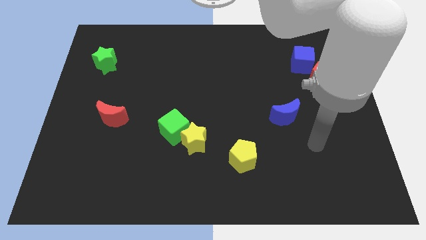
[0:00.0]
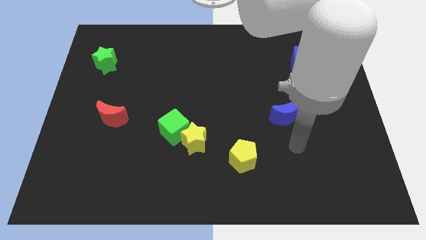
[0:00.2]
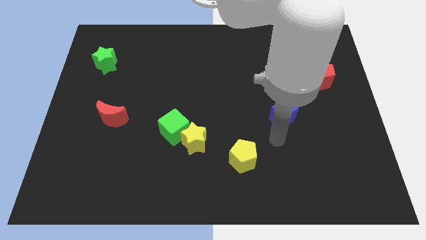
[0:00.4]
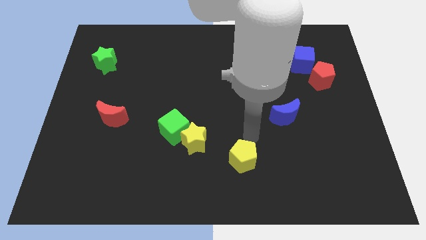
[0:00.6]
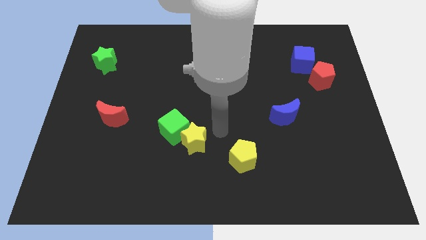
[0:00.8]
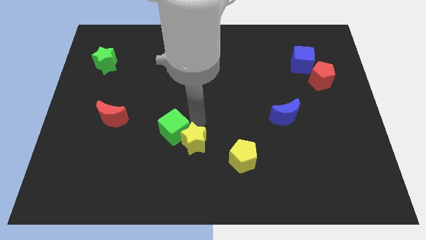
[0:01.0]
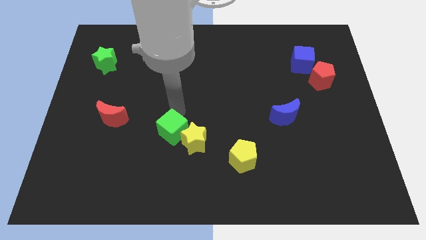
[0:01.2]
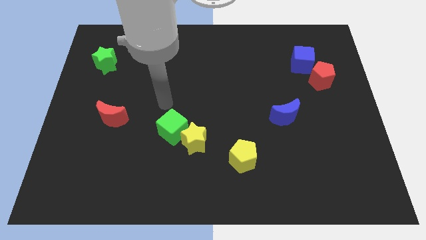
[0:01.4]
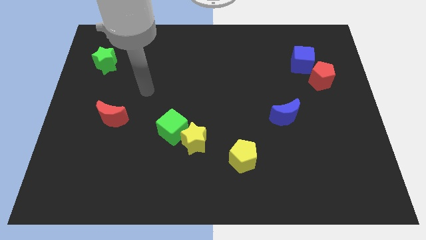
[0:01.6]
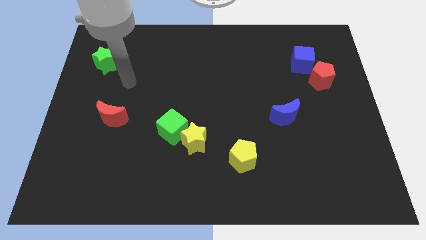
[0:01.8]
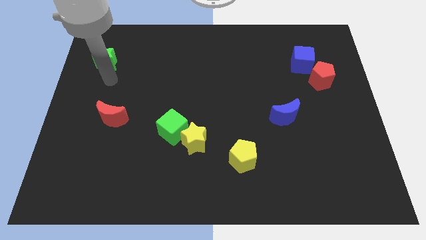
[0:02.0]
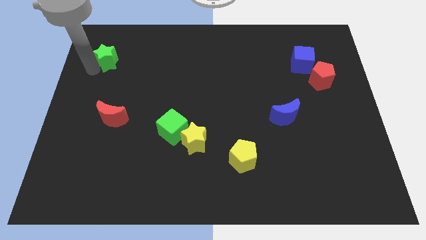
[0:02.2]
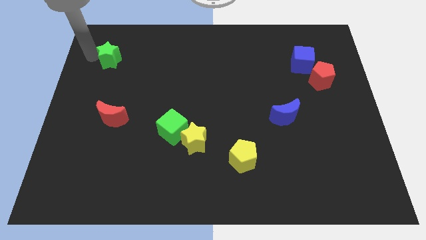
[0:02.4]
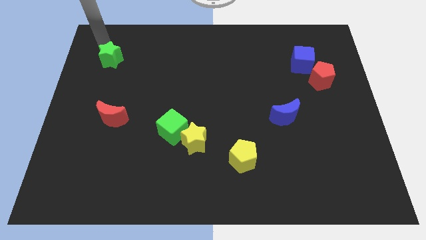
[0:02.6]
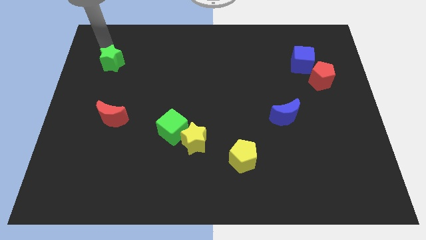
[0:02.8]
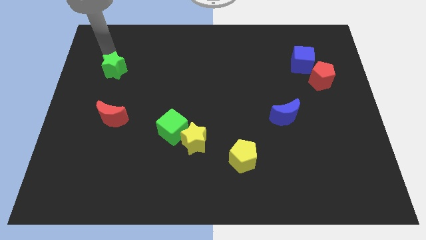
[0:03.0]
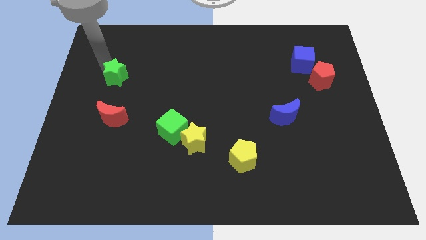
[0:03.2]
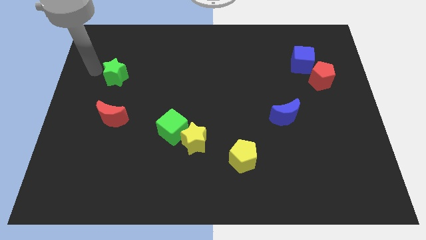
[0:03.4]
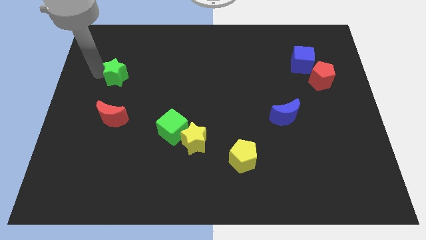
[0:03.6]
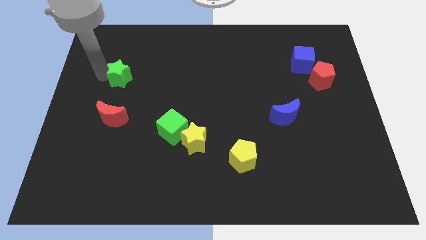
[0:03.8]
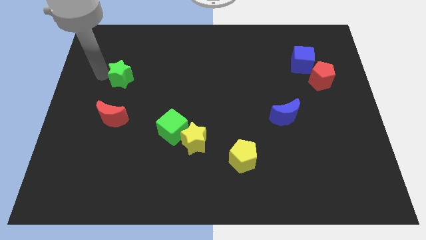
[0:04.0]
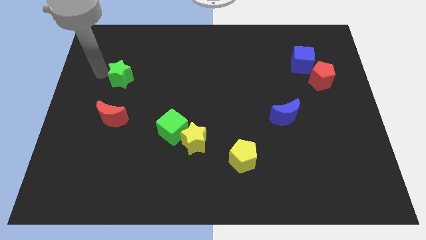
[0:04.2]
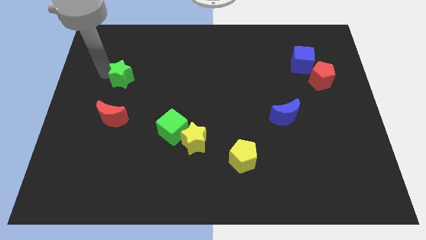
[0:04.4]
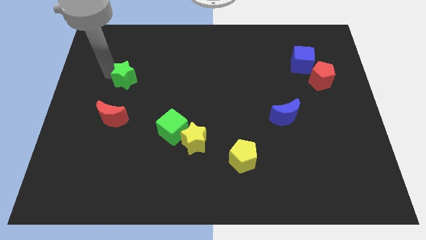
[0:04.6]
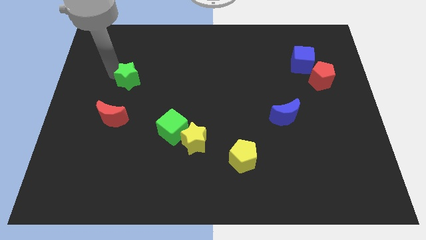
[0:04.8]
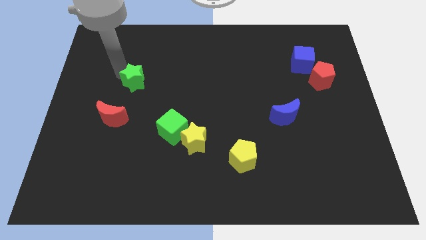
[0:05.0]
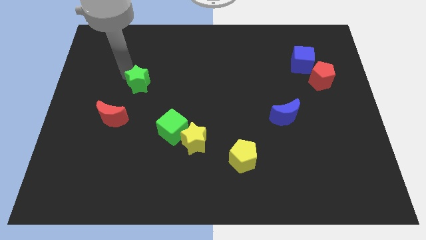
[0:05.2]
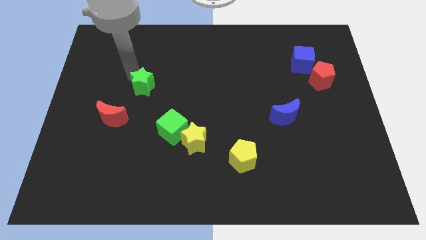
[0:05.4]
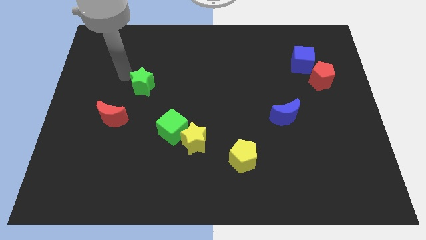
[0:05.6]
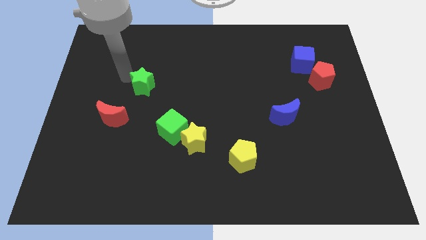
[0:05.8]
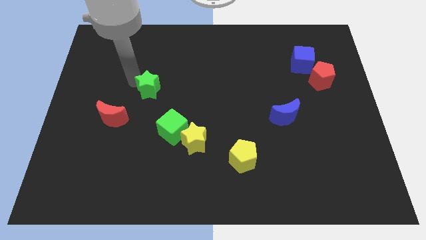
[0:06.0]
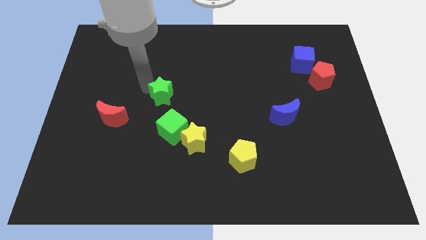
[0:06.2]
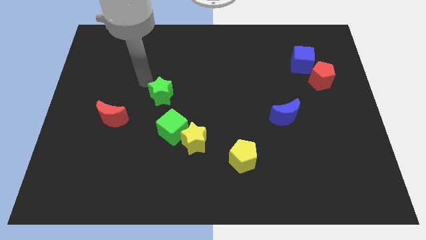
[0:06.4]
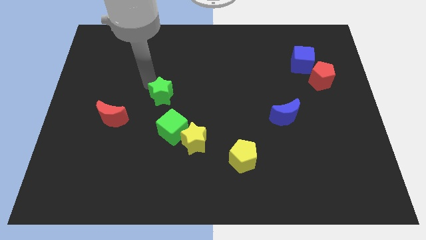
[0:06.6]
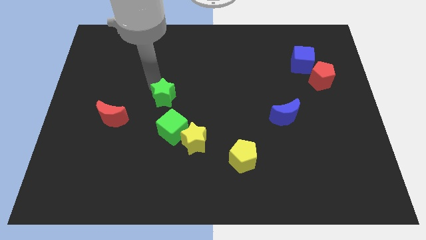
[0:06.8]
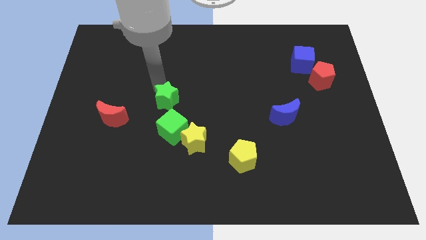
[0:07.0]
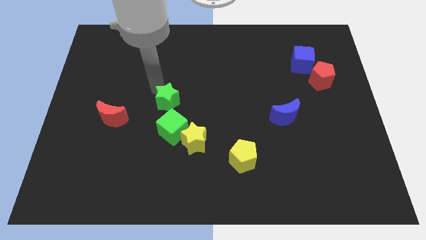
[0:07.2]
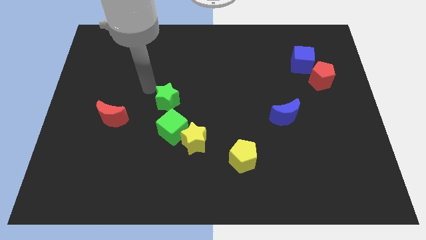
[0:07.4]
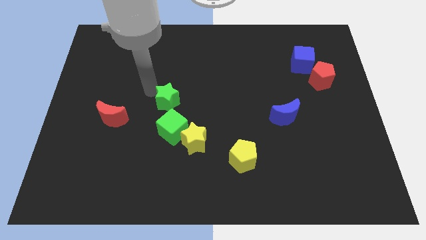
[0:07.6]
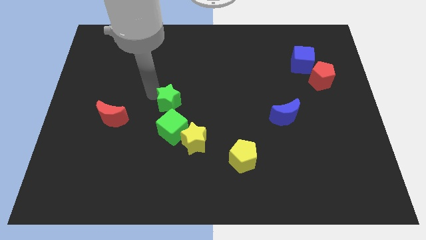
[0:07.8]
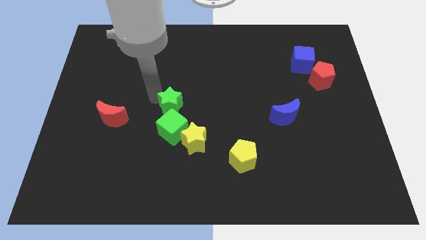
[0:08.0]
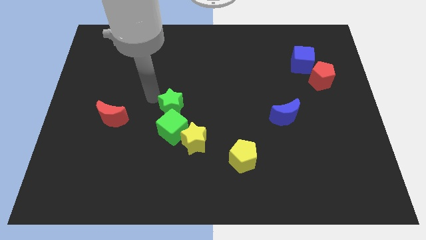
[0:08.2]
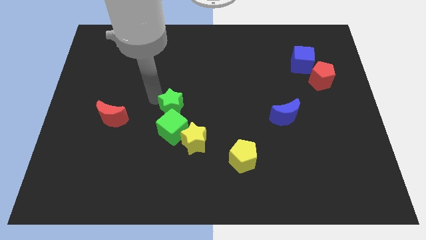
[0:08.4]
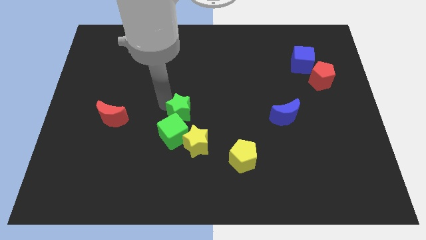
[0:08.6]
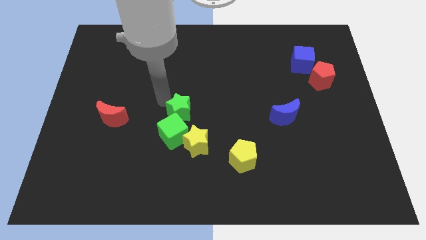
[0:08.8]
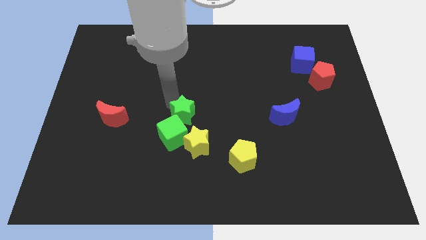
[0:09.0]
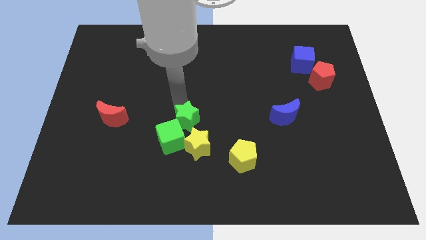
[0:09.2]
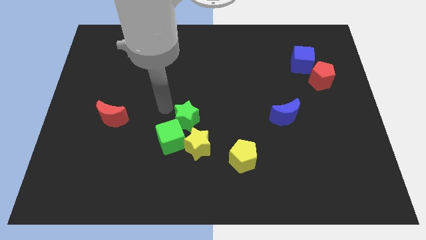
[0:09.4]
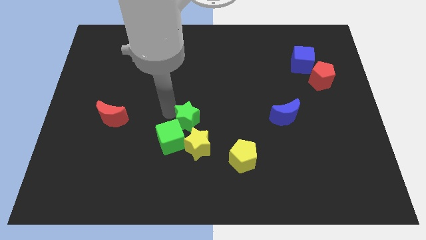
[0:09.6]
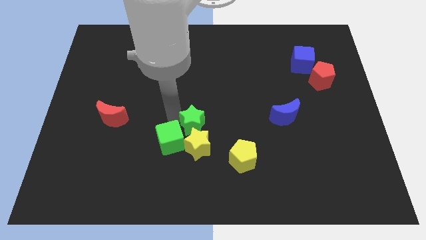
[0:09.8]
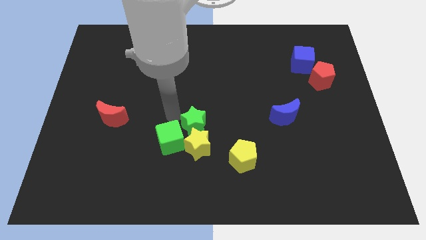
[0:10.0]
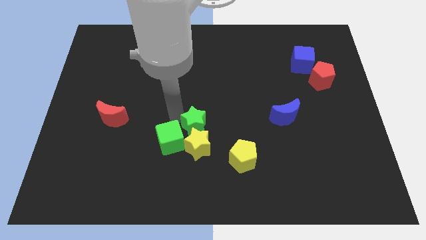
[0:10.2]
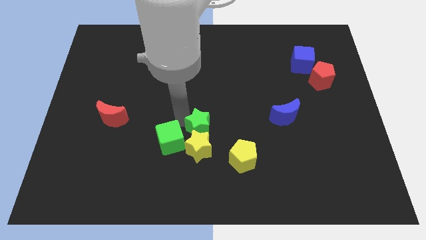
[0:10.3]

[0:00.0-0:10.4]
move the green star diagonally up and to the left of the yellow pentagon

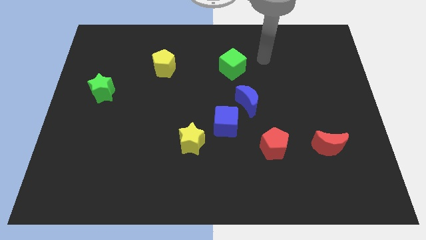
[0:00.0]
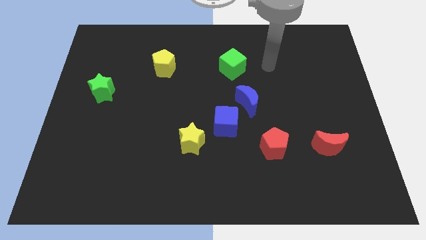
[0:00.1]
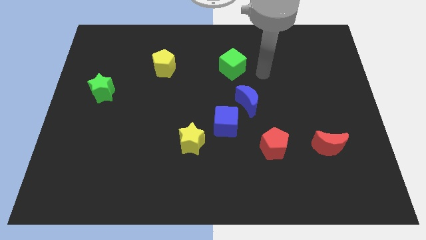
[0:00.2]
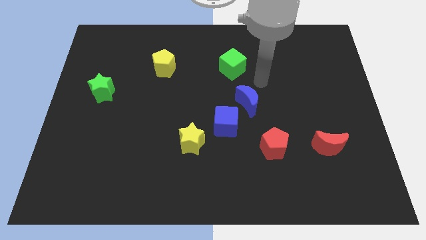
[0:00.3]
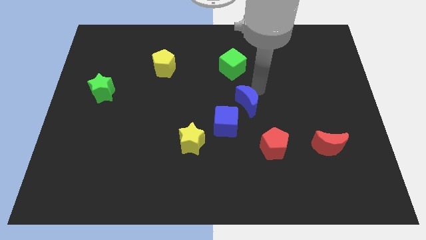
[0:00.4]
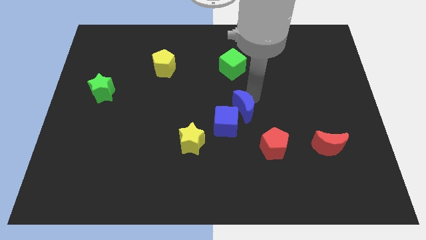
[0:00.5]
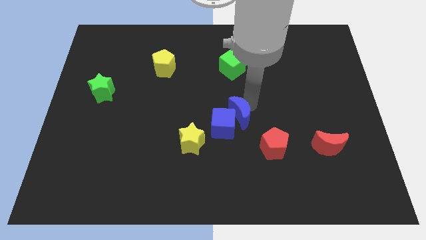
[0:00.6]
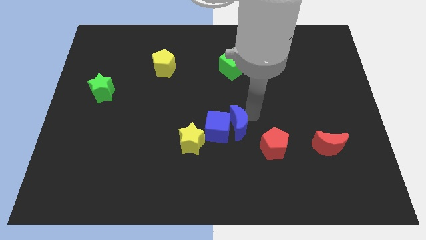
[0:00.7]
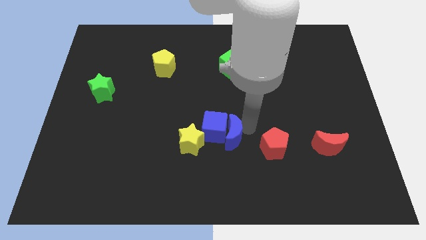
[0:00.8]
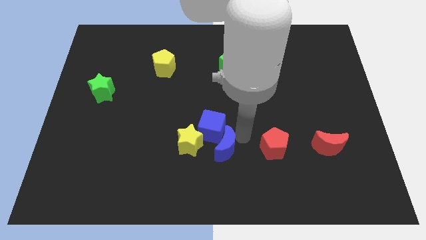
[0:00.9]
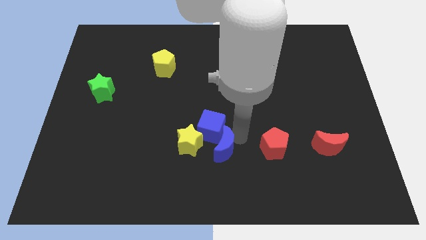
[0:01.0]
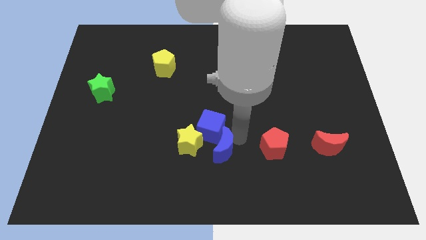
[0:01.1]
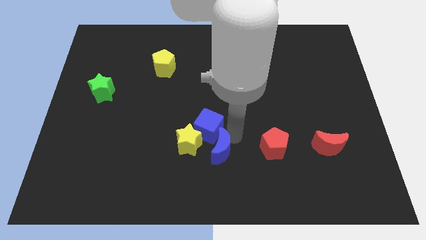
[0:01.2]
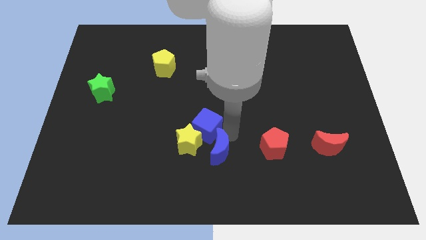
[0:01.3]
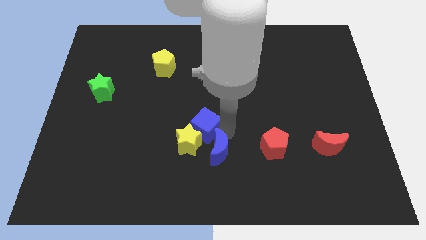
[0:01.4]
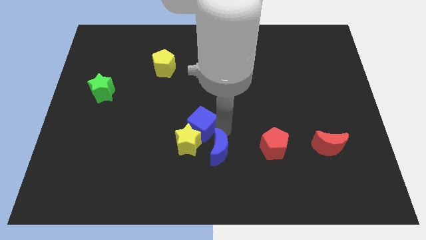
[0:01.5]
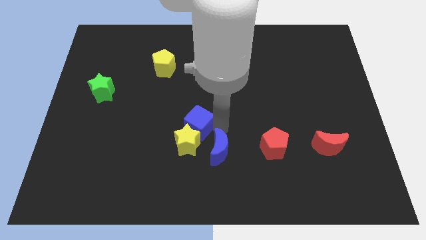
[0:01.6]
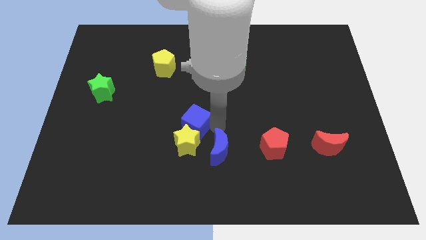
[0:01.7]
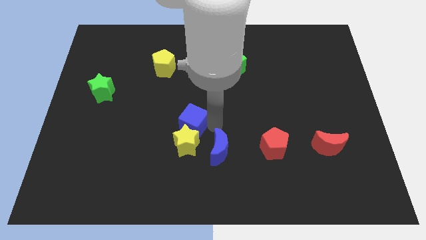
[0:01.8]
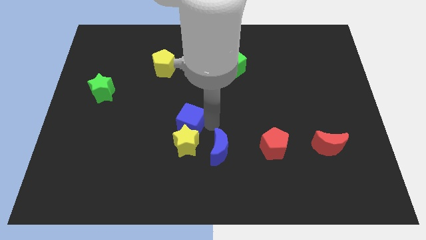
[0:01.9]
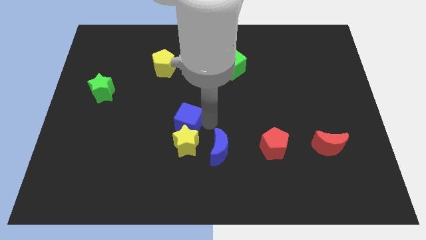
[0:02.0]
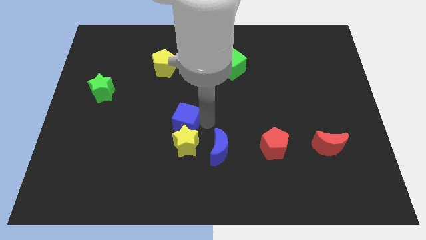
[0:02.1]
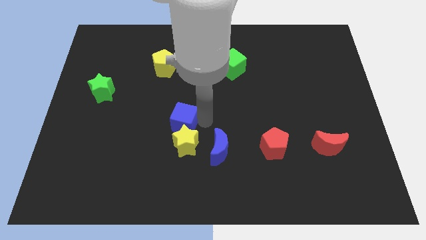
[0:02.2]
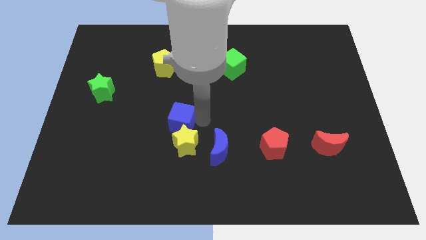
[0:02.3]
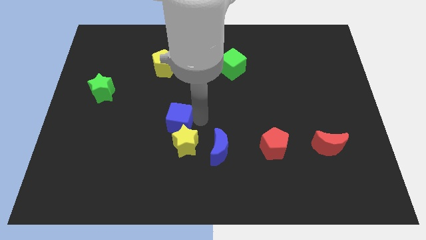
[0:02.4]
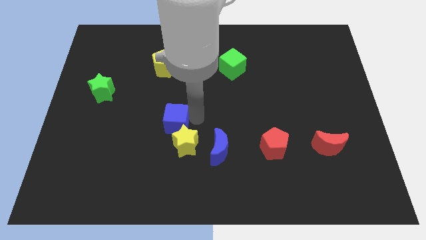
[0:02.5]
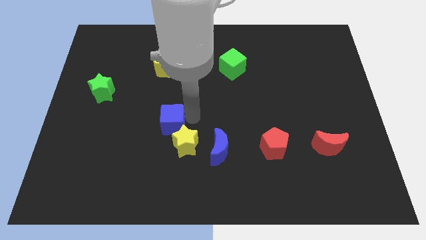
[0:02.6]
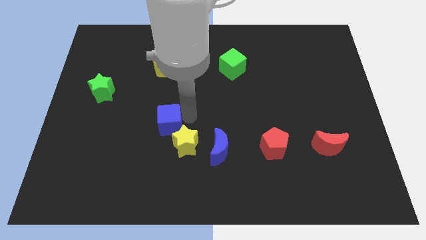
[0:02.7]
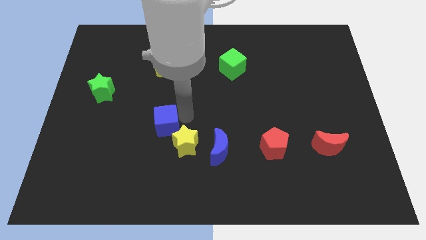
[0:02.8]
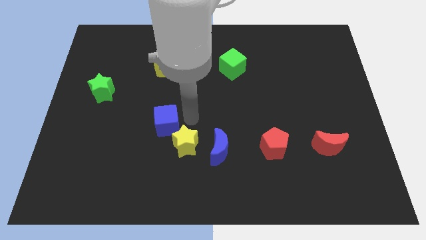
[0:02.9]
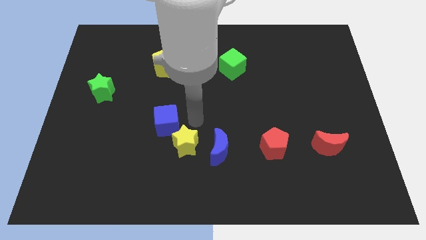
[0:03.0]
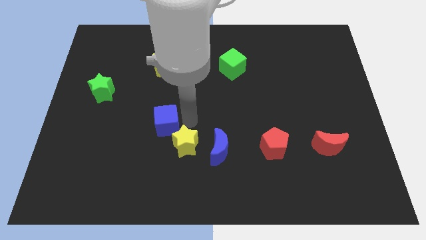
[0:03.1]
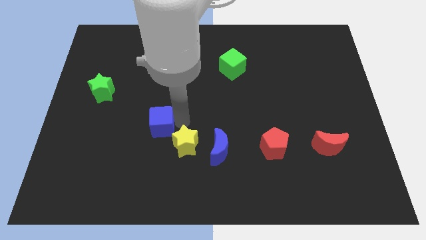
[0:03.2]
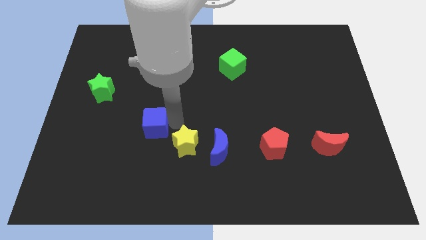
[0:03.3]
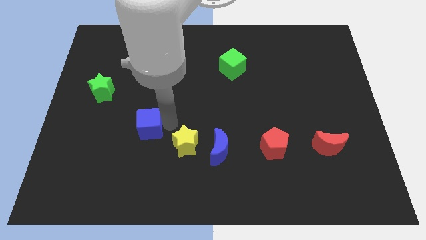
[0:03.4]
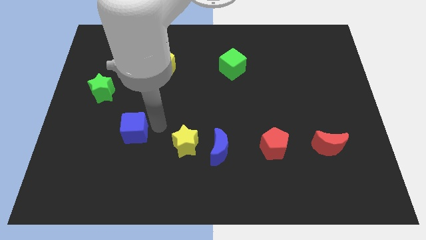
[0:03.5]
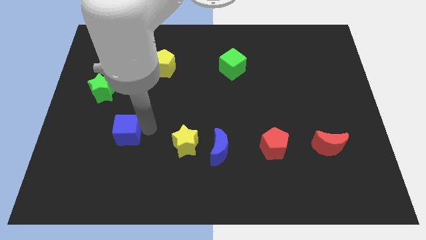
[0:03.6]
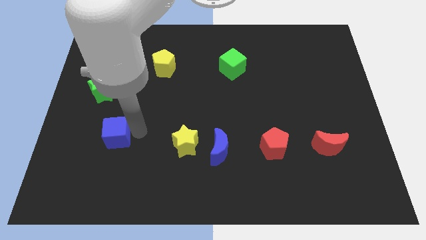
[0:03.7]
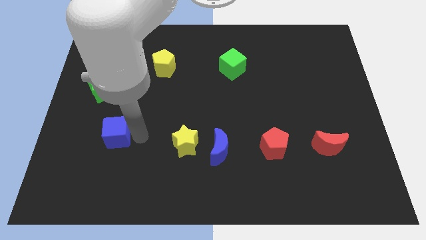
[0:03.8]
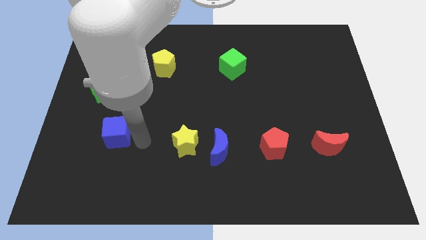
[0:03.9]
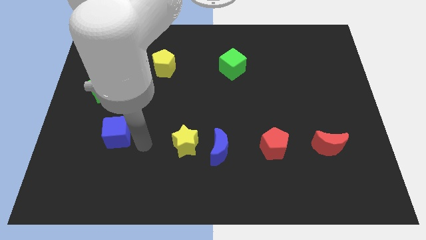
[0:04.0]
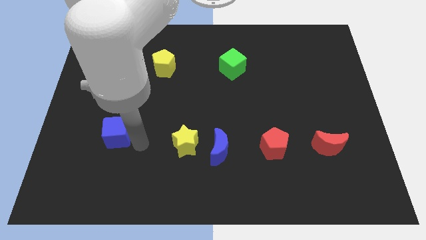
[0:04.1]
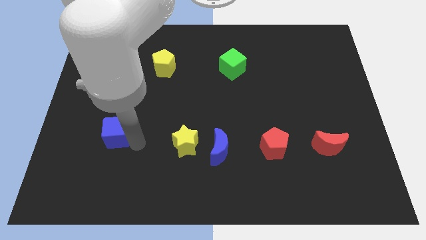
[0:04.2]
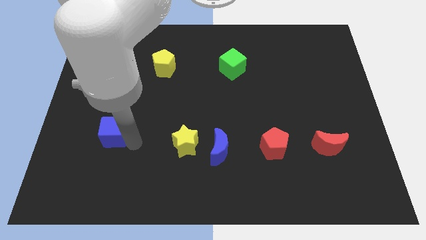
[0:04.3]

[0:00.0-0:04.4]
slide the blue cube below the green star
